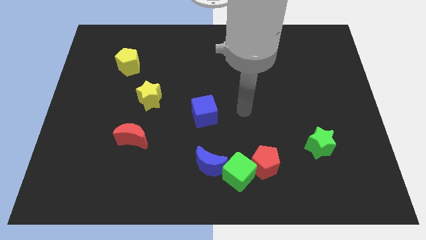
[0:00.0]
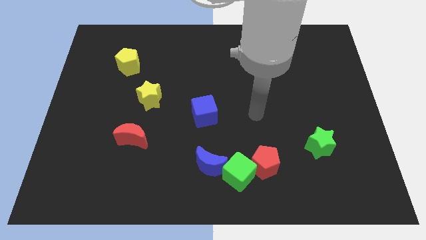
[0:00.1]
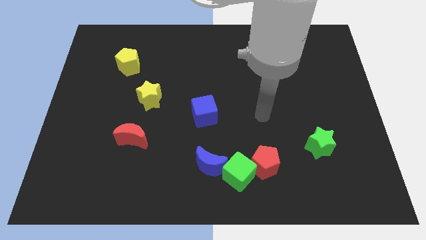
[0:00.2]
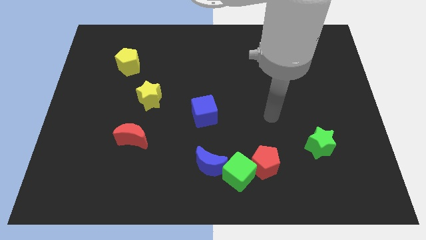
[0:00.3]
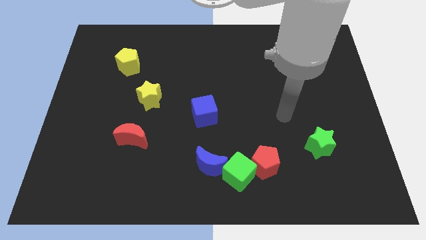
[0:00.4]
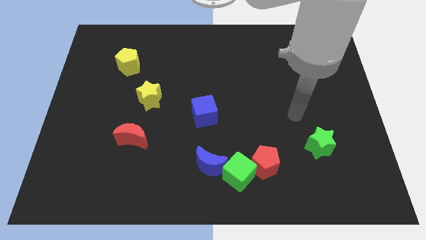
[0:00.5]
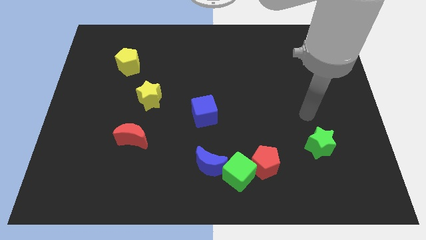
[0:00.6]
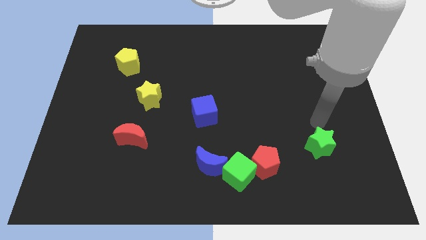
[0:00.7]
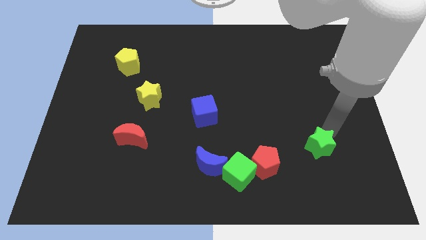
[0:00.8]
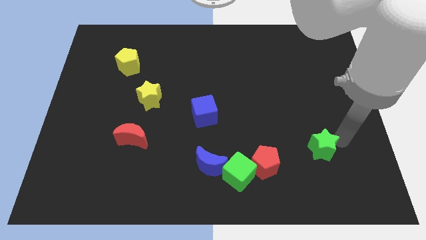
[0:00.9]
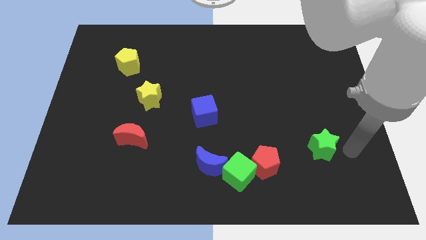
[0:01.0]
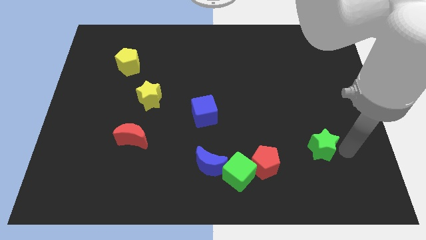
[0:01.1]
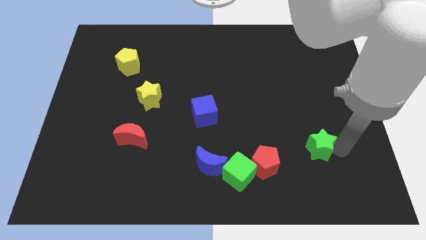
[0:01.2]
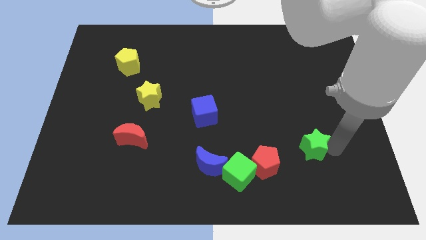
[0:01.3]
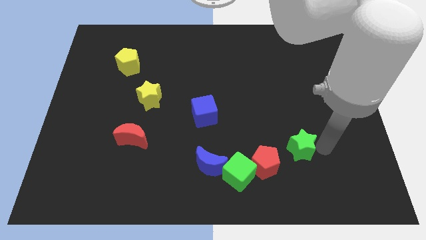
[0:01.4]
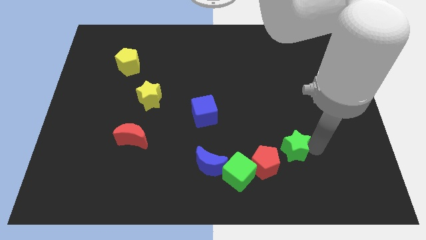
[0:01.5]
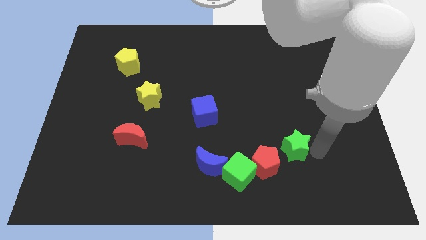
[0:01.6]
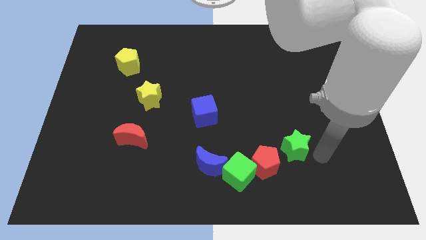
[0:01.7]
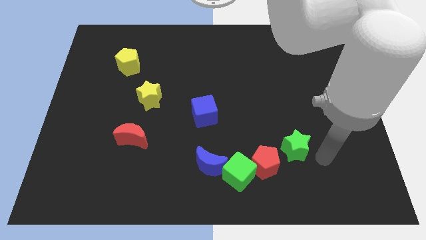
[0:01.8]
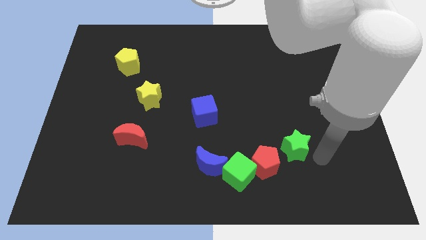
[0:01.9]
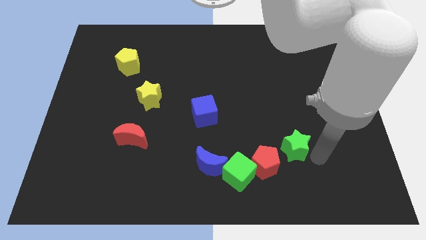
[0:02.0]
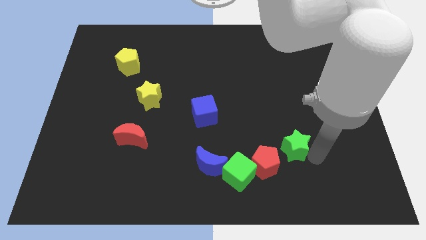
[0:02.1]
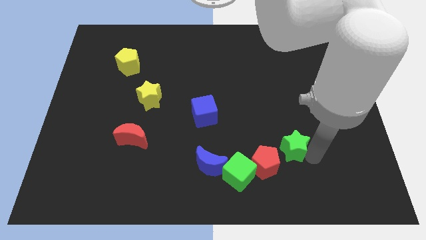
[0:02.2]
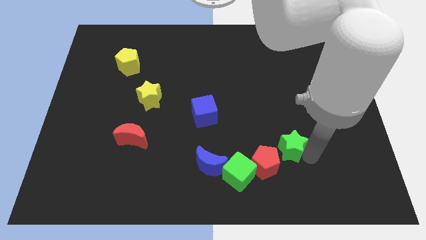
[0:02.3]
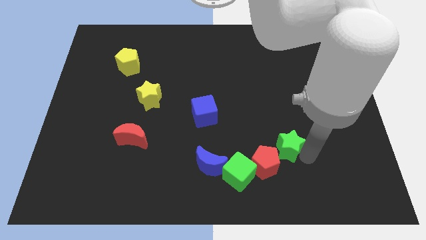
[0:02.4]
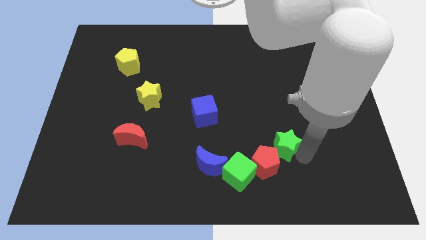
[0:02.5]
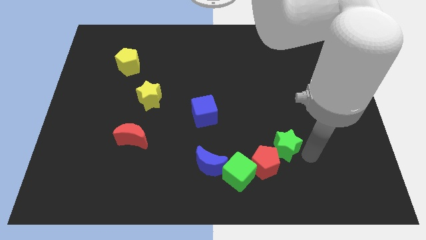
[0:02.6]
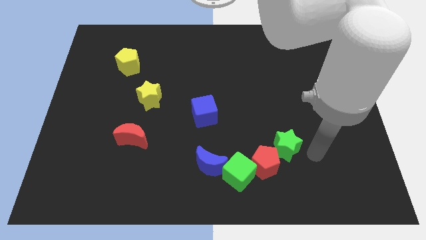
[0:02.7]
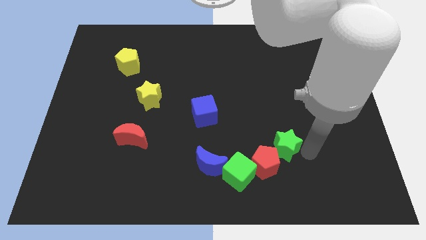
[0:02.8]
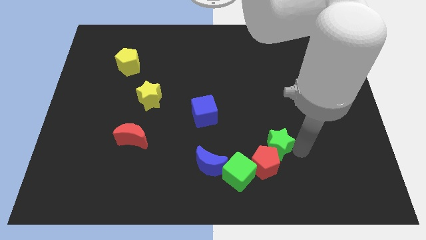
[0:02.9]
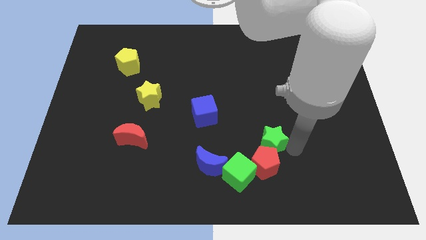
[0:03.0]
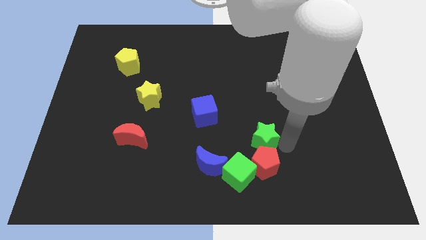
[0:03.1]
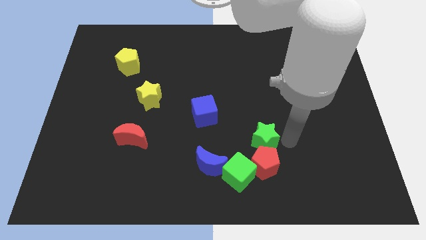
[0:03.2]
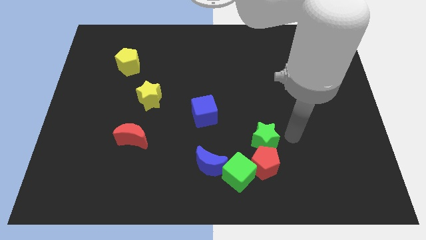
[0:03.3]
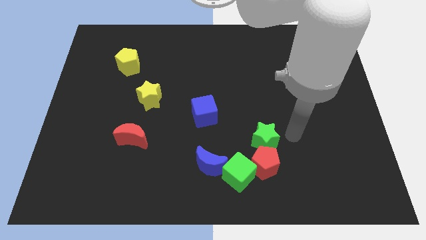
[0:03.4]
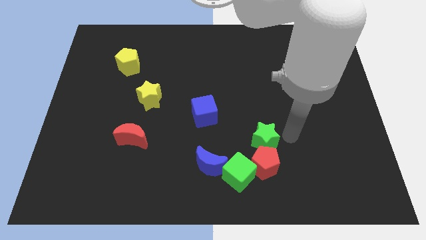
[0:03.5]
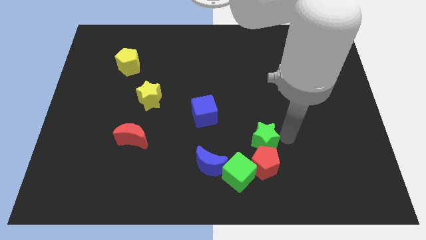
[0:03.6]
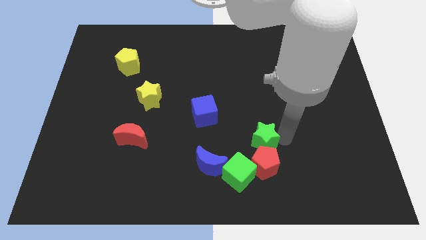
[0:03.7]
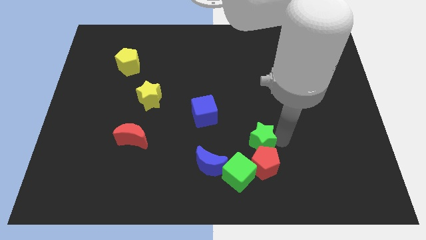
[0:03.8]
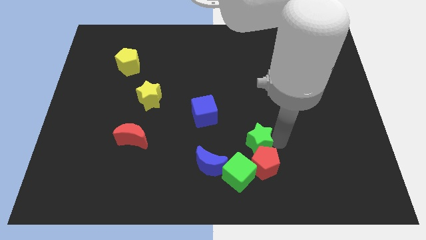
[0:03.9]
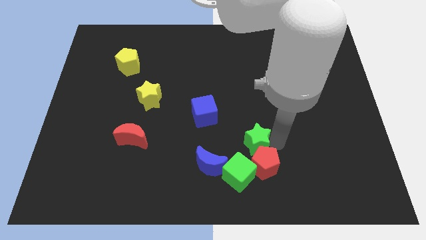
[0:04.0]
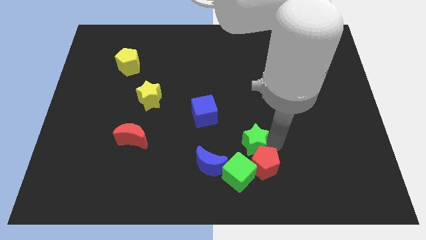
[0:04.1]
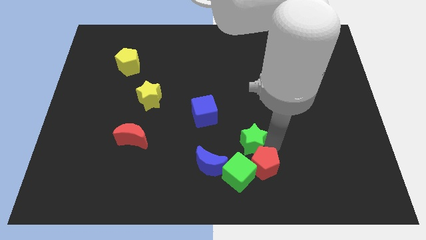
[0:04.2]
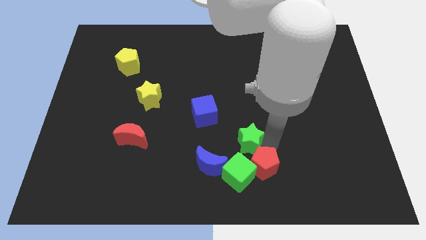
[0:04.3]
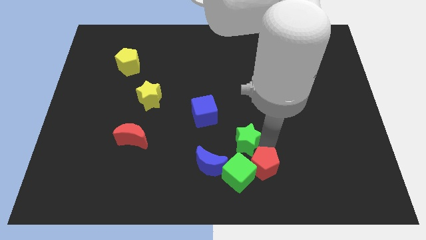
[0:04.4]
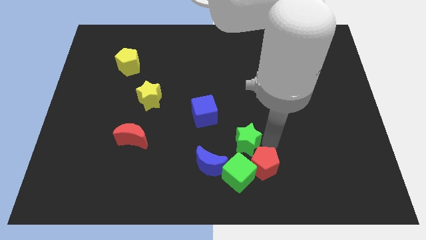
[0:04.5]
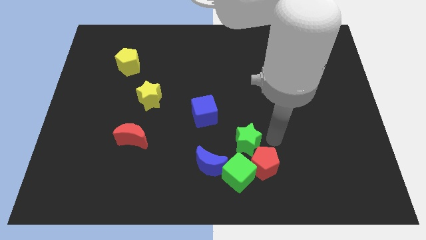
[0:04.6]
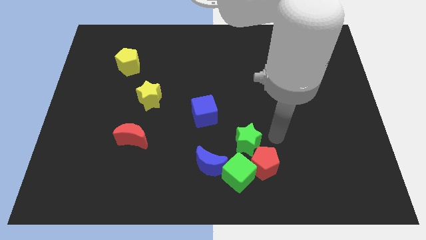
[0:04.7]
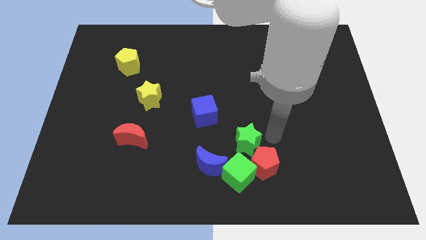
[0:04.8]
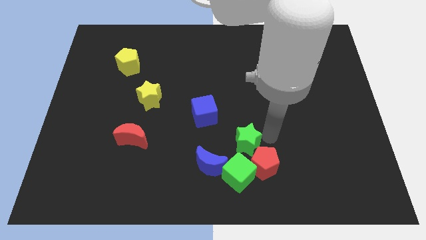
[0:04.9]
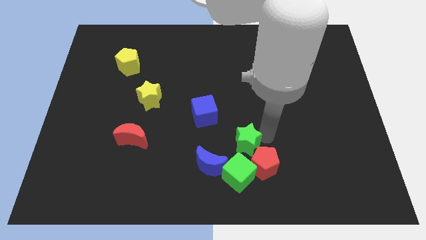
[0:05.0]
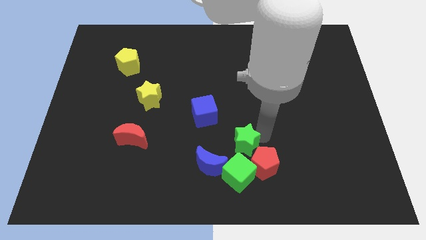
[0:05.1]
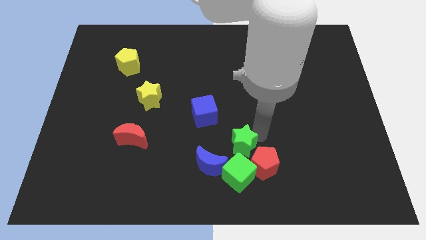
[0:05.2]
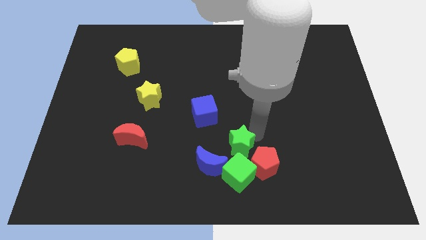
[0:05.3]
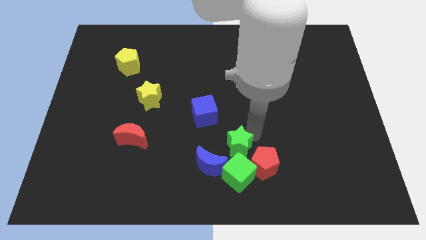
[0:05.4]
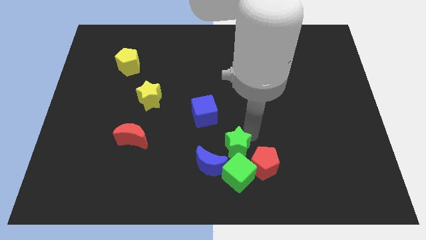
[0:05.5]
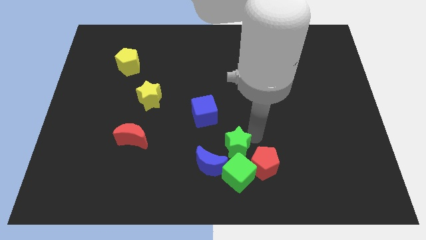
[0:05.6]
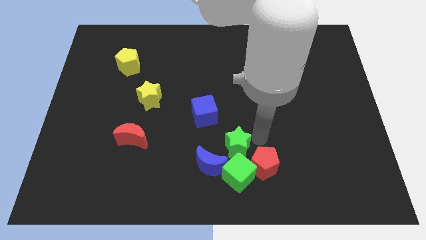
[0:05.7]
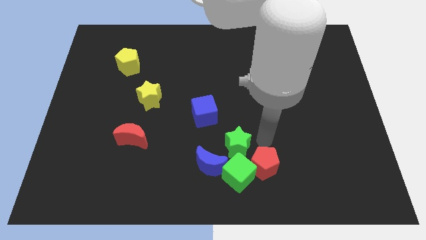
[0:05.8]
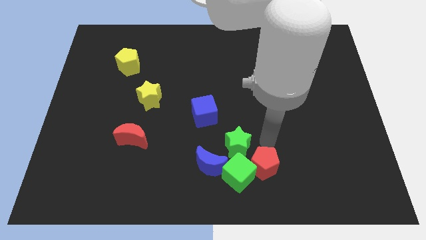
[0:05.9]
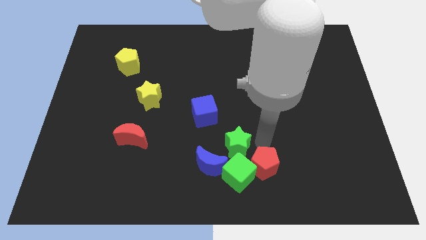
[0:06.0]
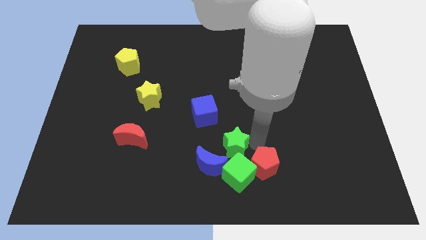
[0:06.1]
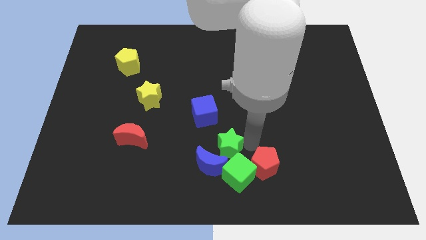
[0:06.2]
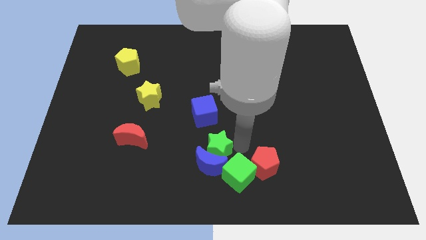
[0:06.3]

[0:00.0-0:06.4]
slide the green star to the left

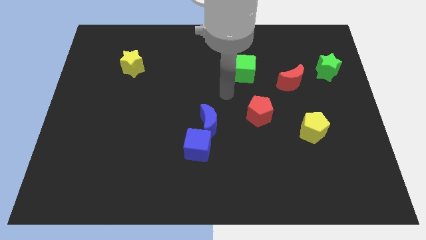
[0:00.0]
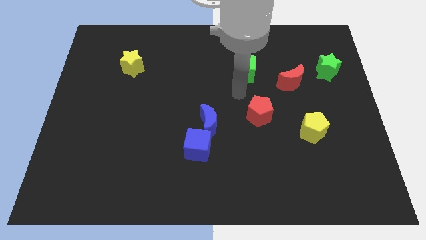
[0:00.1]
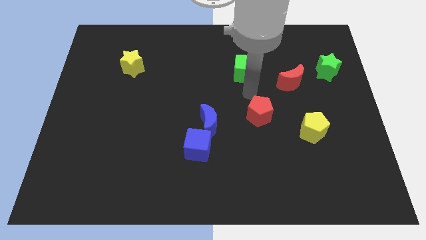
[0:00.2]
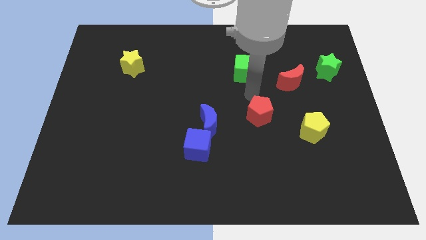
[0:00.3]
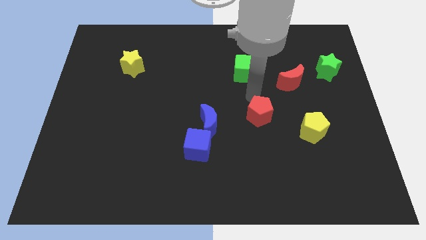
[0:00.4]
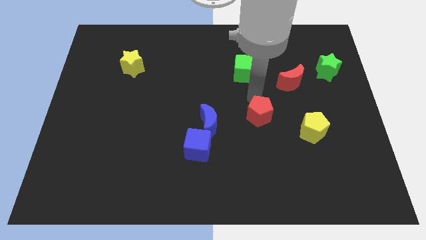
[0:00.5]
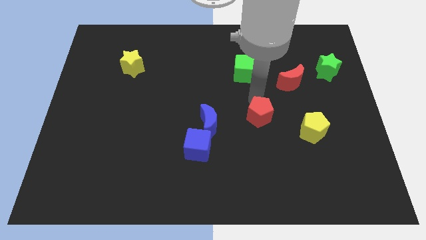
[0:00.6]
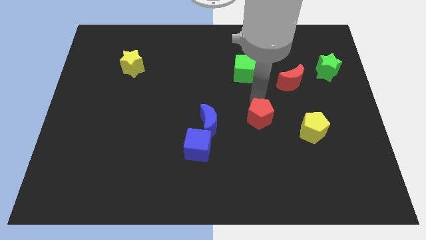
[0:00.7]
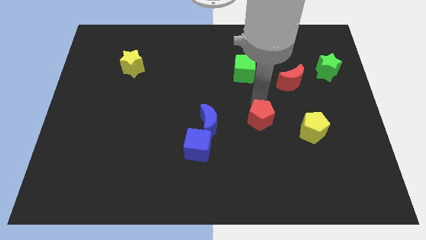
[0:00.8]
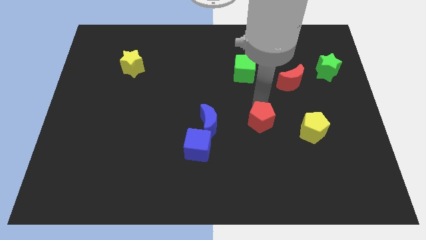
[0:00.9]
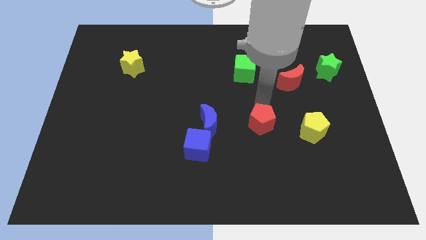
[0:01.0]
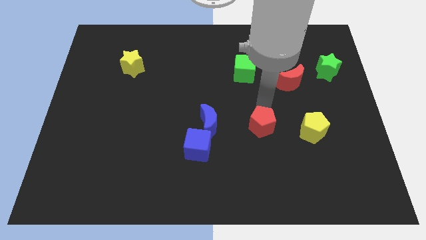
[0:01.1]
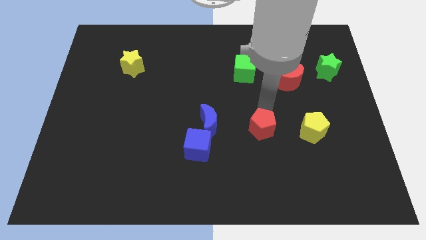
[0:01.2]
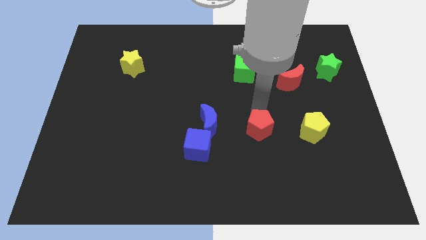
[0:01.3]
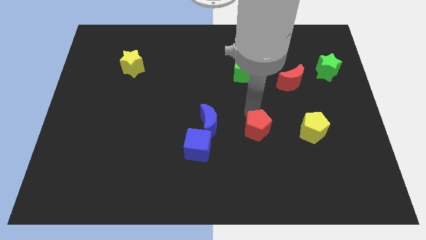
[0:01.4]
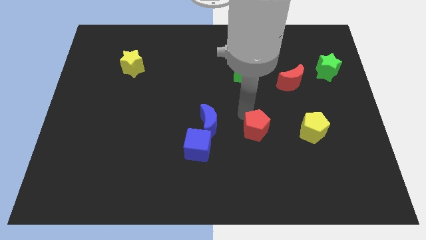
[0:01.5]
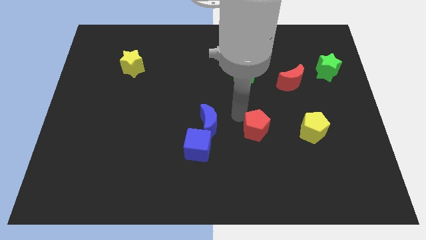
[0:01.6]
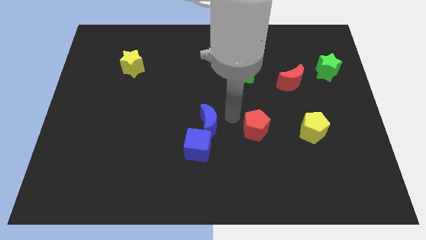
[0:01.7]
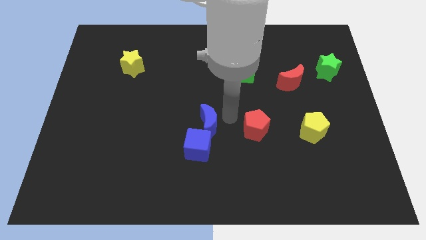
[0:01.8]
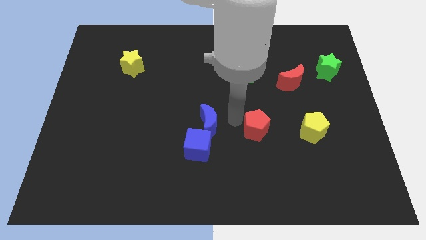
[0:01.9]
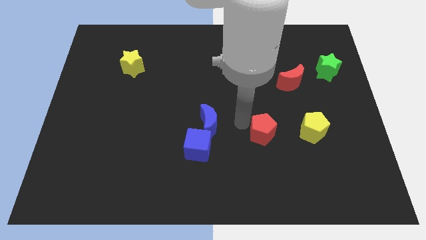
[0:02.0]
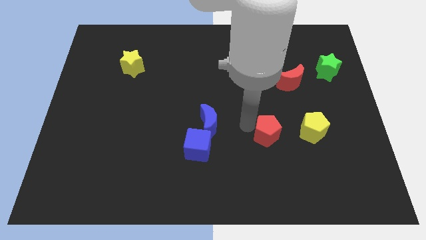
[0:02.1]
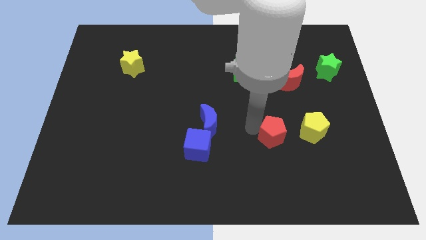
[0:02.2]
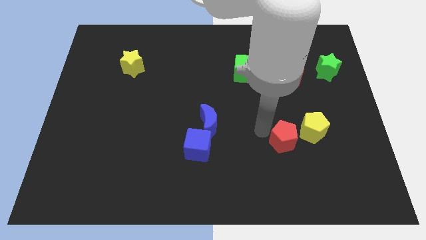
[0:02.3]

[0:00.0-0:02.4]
slide the red pentagon a little diagonally downwards and to the right
